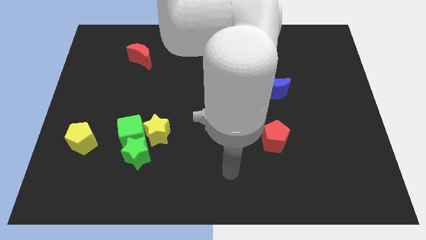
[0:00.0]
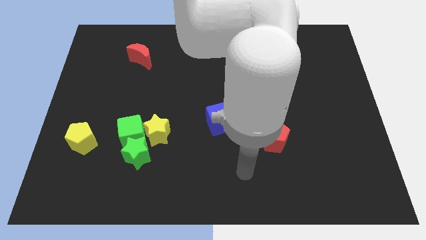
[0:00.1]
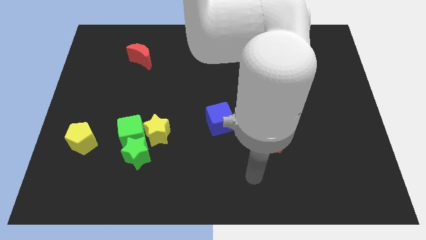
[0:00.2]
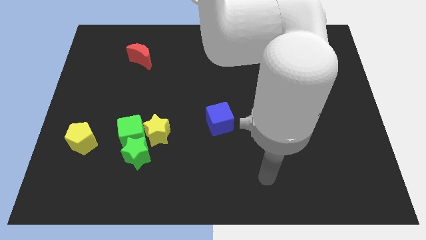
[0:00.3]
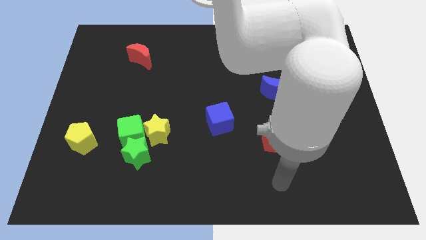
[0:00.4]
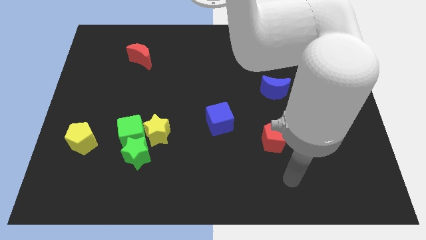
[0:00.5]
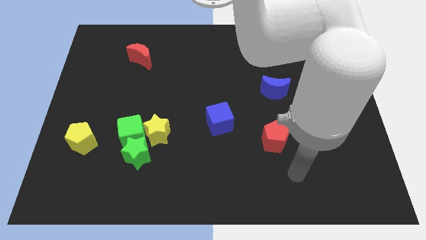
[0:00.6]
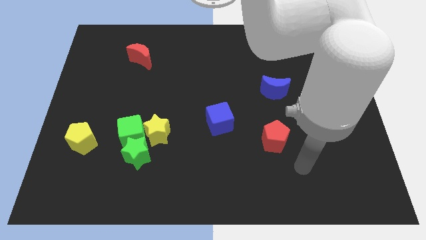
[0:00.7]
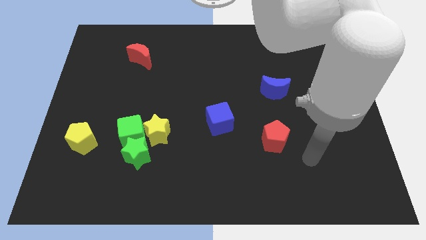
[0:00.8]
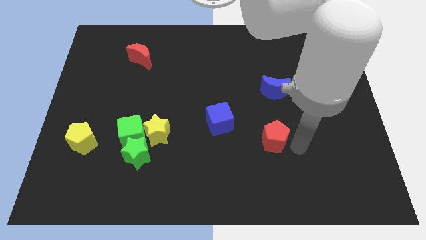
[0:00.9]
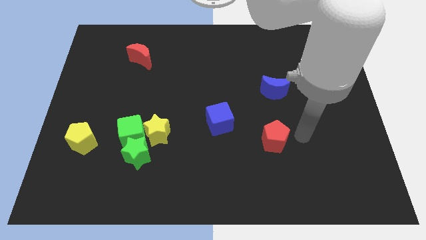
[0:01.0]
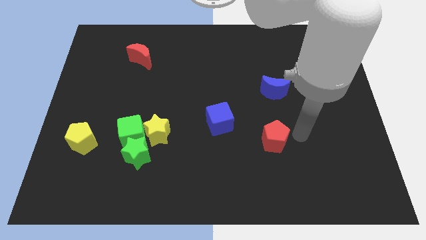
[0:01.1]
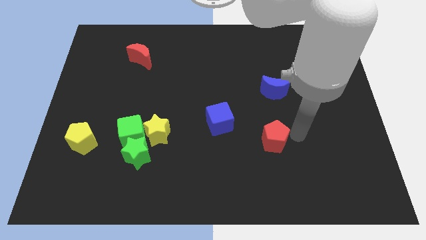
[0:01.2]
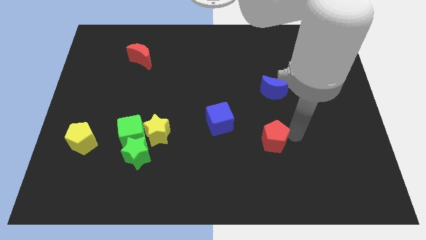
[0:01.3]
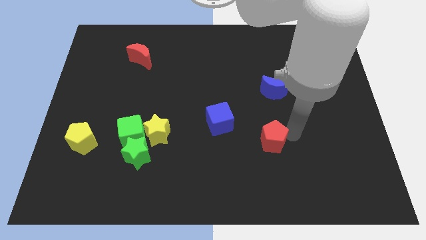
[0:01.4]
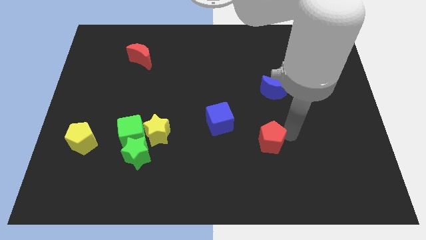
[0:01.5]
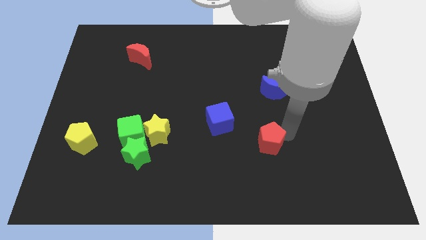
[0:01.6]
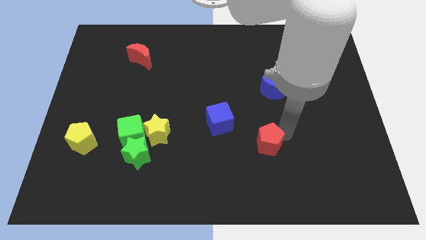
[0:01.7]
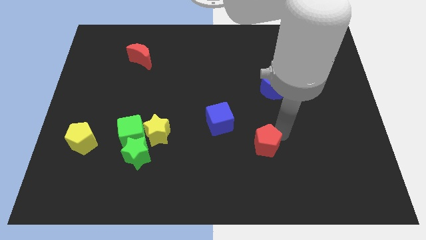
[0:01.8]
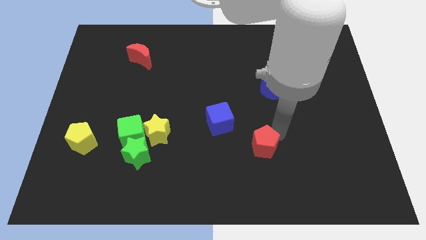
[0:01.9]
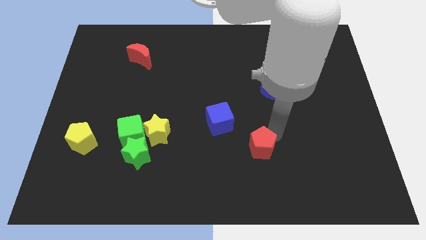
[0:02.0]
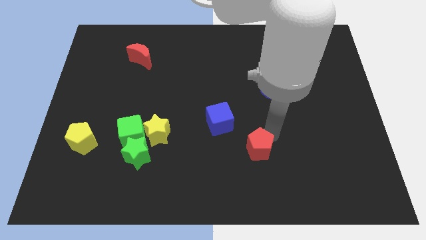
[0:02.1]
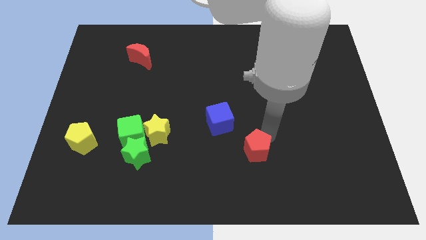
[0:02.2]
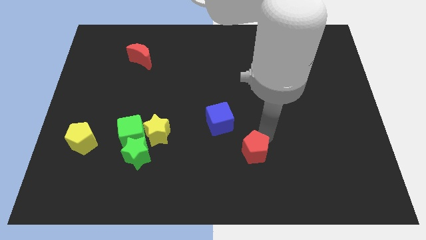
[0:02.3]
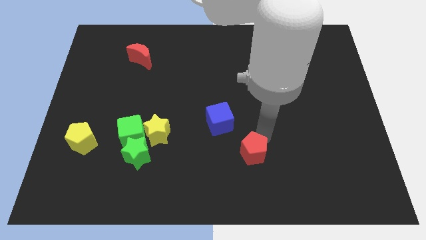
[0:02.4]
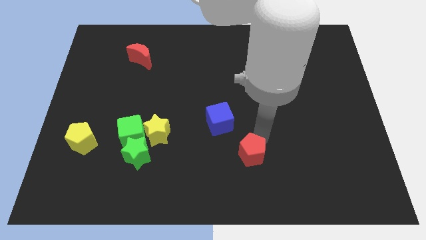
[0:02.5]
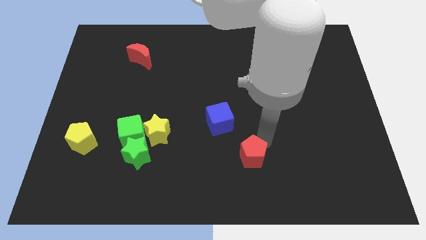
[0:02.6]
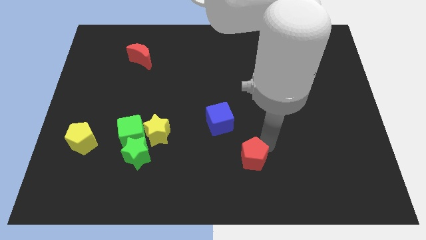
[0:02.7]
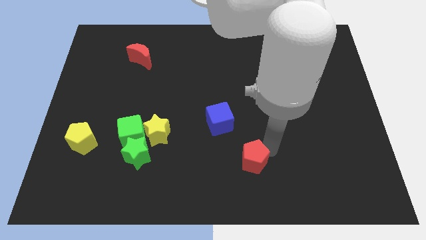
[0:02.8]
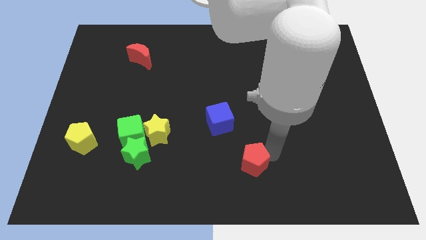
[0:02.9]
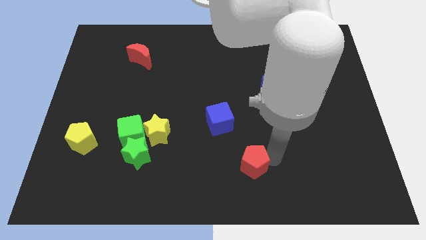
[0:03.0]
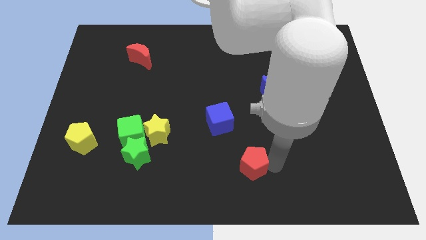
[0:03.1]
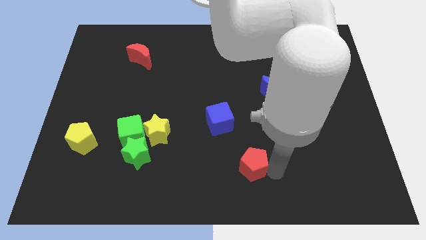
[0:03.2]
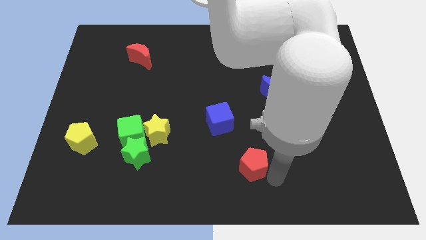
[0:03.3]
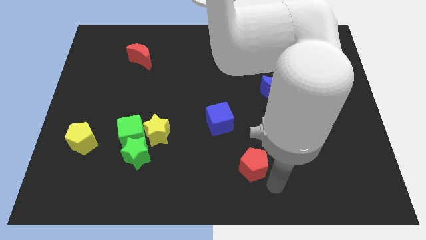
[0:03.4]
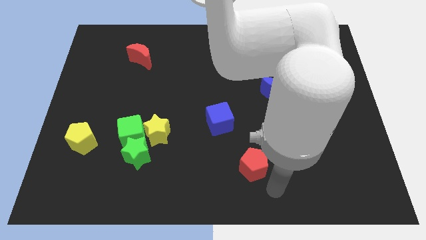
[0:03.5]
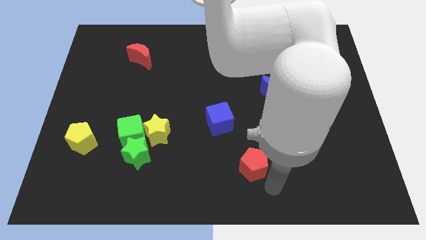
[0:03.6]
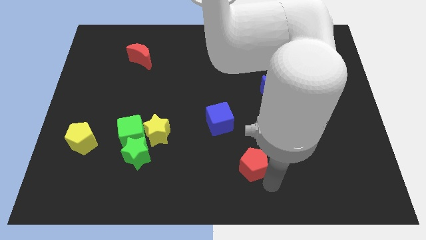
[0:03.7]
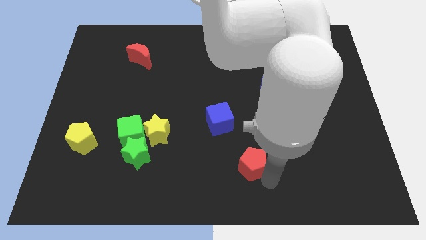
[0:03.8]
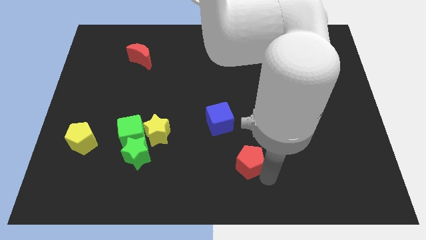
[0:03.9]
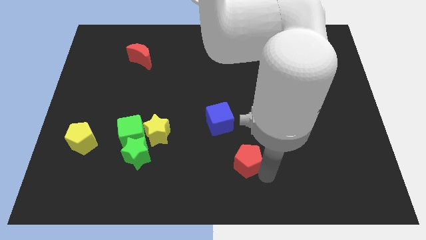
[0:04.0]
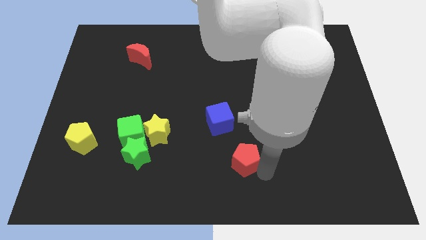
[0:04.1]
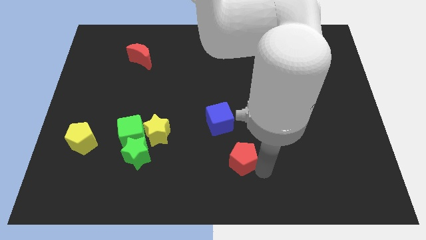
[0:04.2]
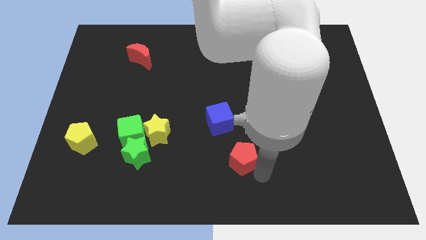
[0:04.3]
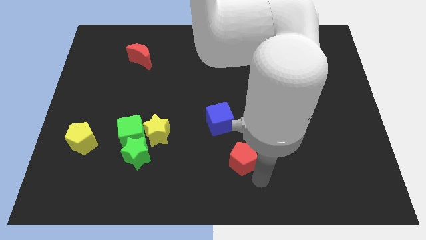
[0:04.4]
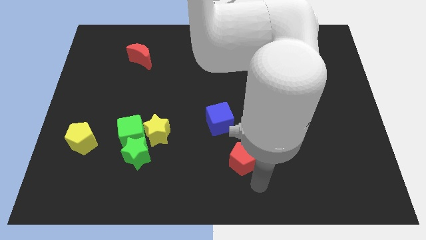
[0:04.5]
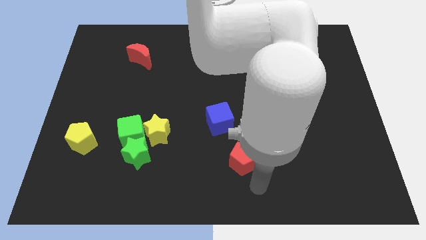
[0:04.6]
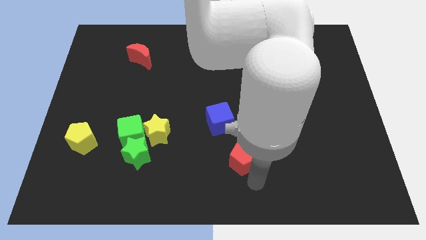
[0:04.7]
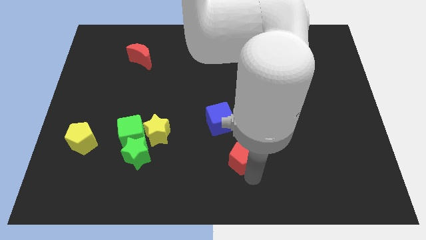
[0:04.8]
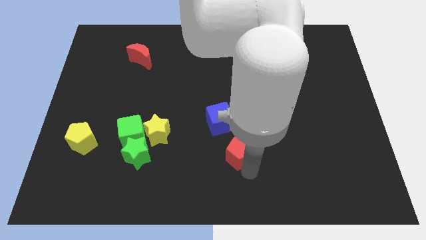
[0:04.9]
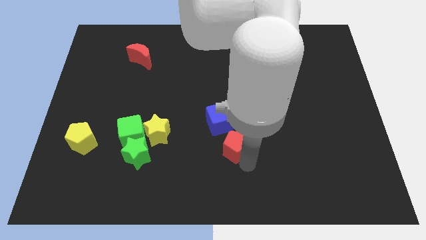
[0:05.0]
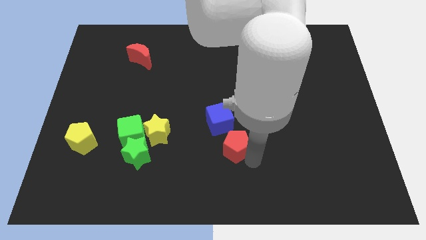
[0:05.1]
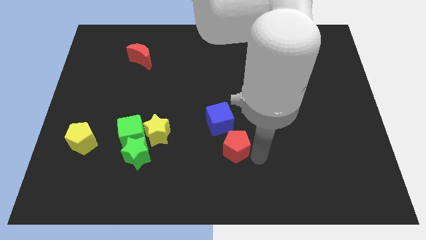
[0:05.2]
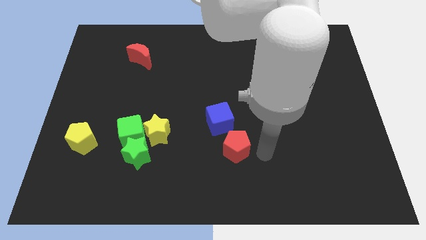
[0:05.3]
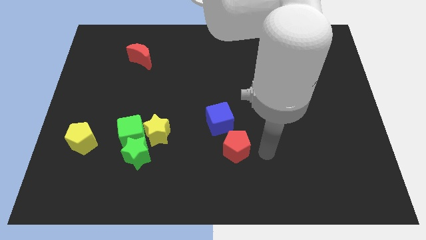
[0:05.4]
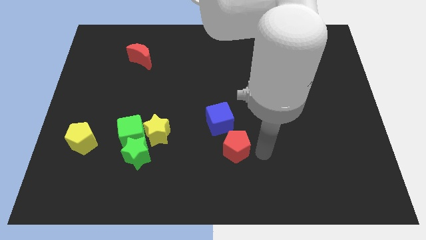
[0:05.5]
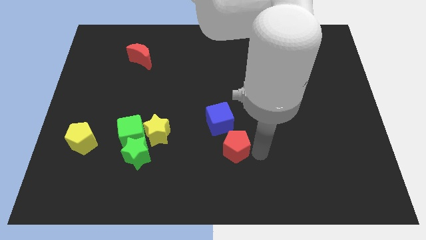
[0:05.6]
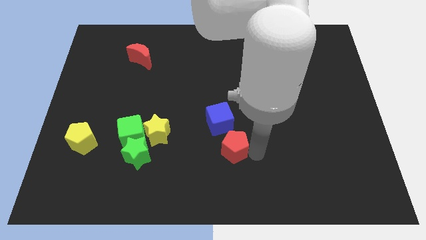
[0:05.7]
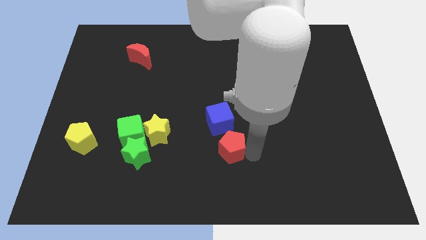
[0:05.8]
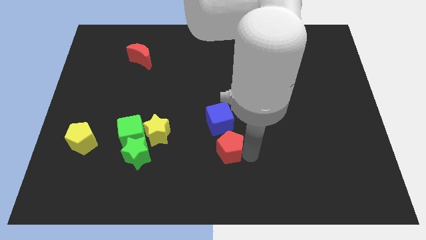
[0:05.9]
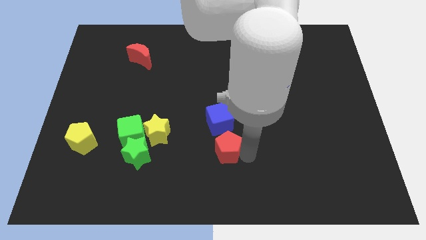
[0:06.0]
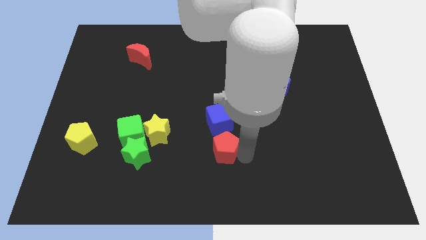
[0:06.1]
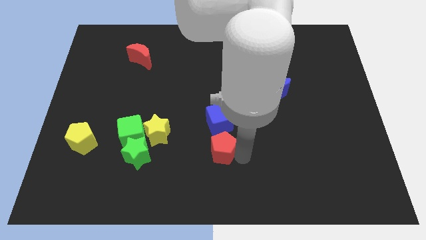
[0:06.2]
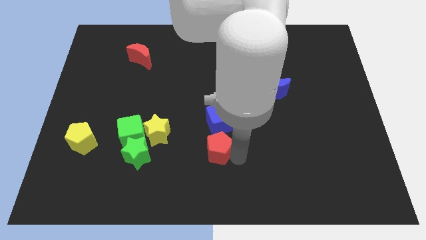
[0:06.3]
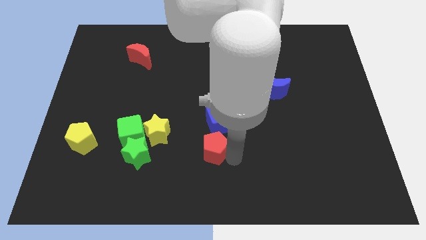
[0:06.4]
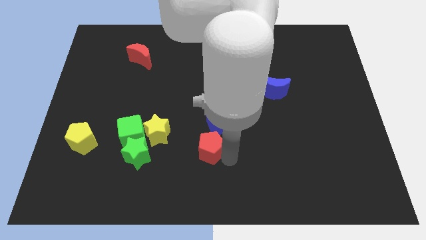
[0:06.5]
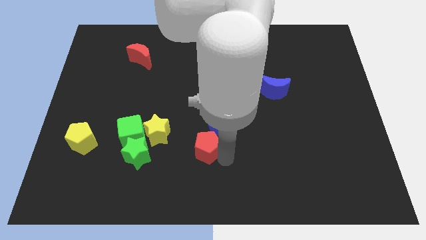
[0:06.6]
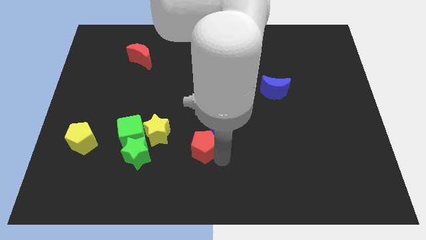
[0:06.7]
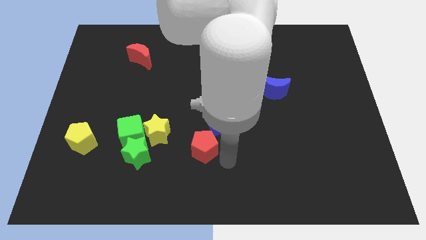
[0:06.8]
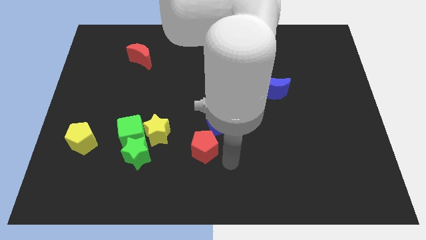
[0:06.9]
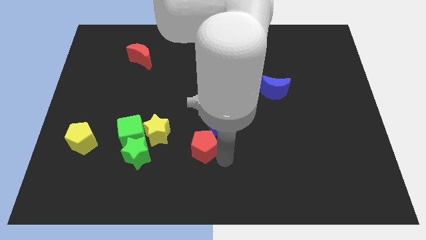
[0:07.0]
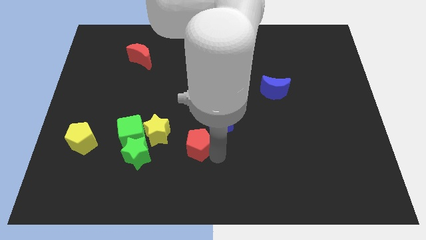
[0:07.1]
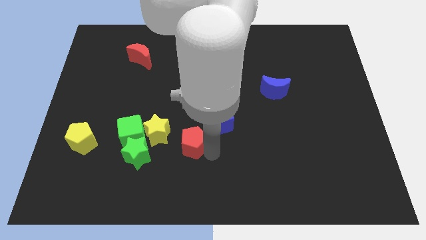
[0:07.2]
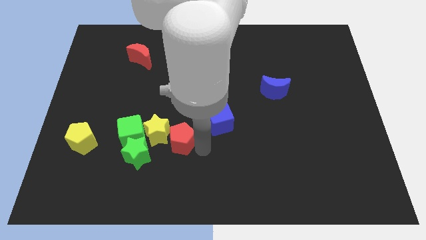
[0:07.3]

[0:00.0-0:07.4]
put the red pentagon to the yellow star
